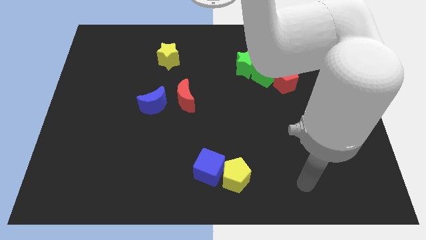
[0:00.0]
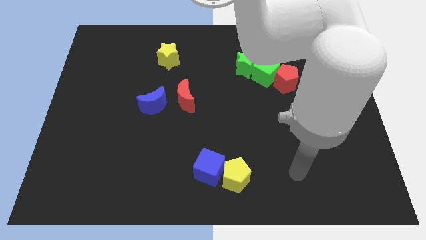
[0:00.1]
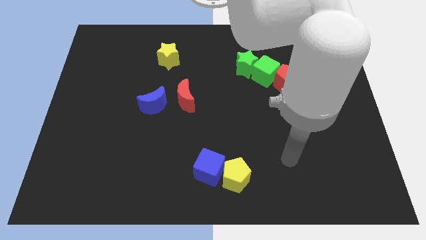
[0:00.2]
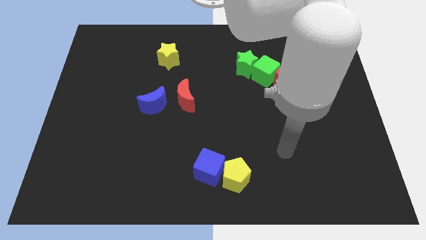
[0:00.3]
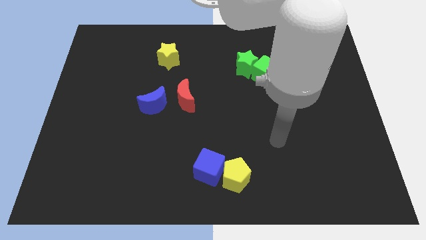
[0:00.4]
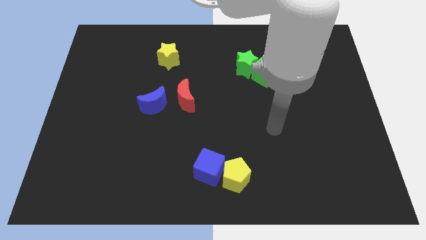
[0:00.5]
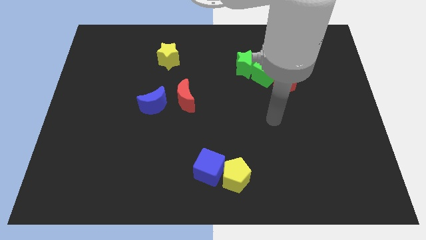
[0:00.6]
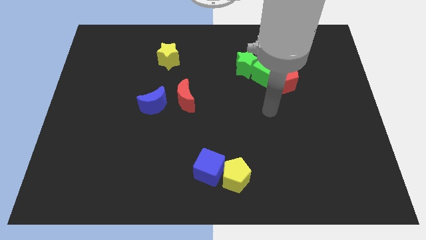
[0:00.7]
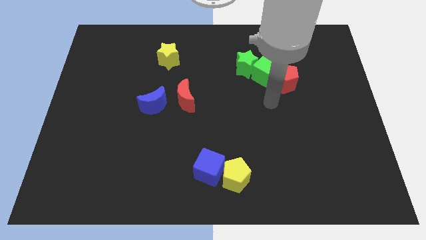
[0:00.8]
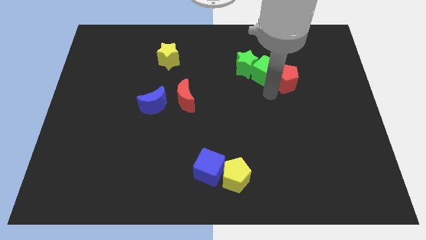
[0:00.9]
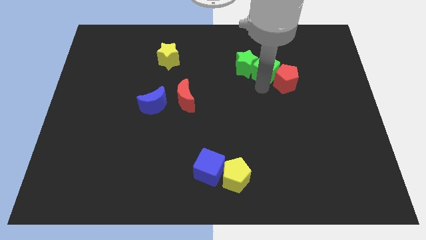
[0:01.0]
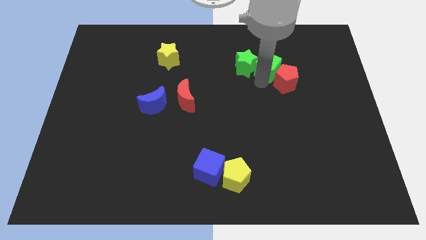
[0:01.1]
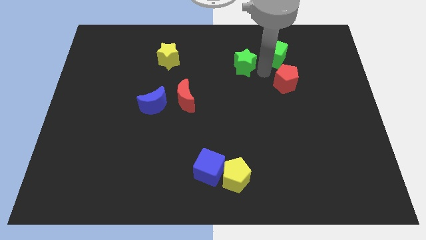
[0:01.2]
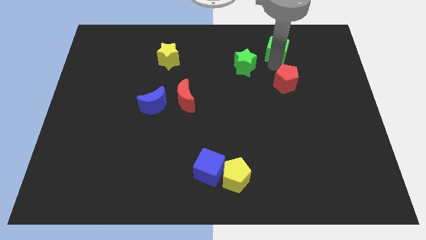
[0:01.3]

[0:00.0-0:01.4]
separate the red pentagon from the green cube

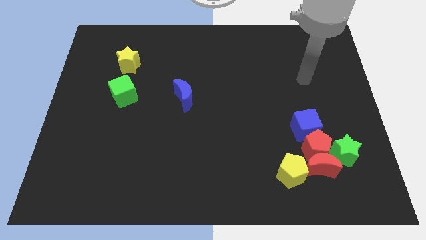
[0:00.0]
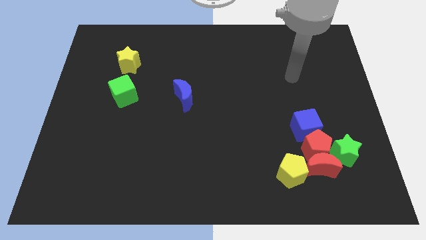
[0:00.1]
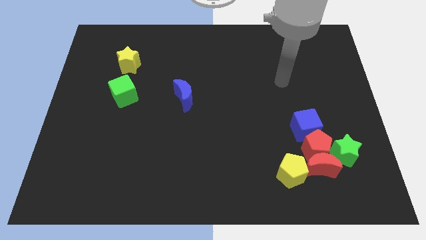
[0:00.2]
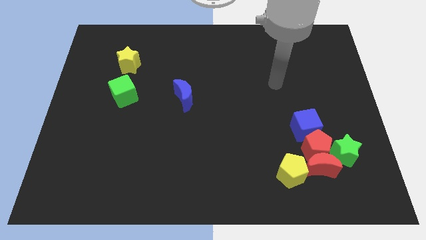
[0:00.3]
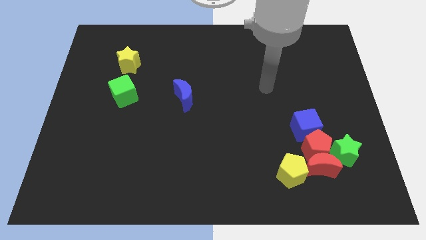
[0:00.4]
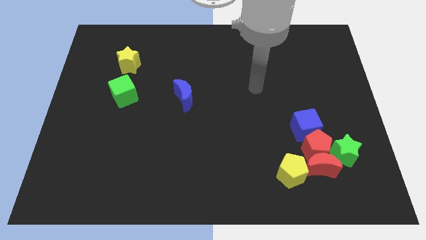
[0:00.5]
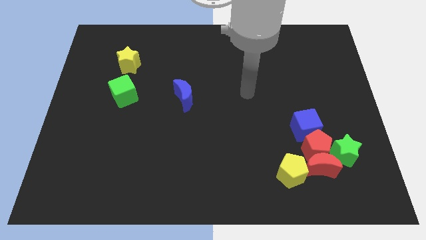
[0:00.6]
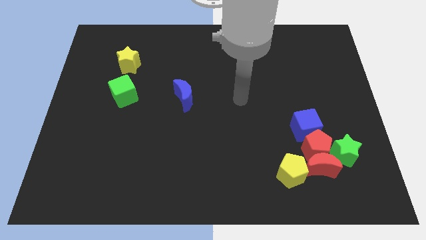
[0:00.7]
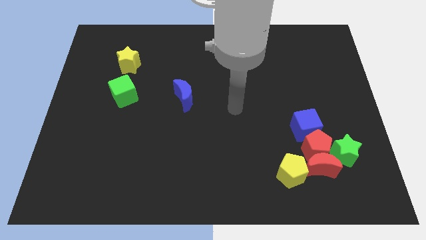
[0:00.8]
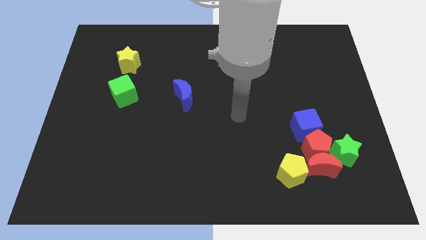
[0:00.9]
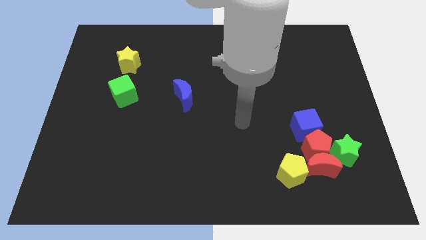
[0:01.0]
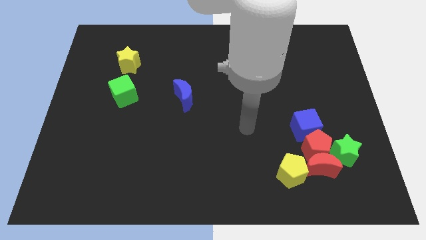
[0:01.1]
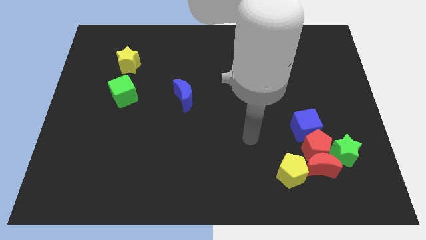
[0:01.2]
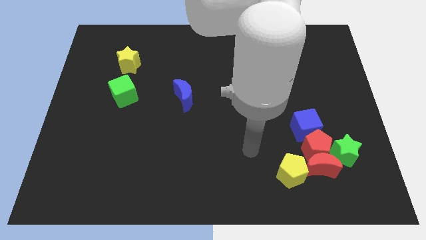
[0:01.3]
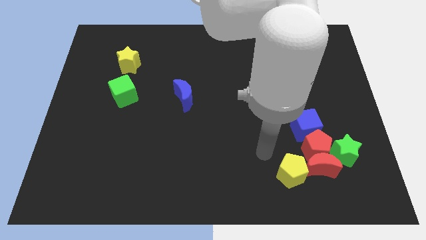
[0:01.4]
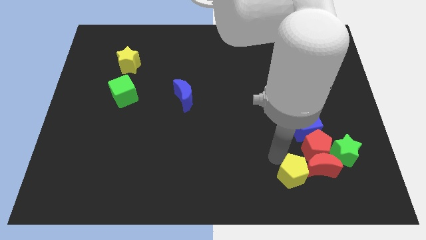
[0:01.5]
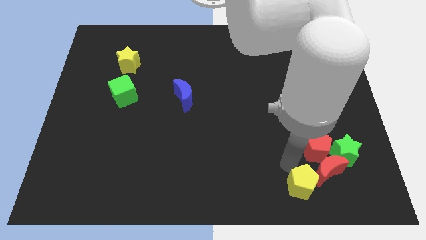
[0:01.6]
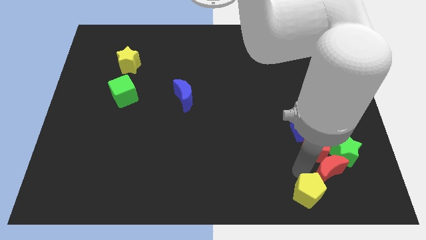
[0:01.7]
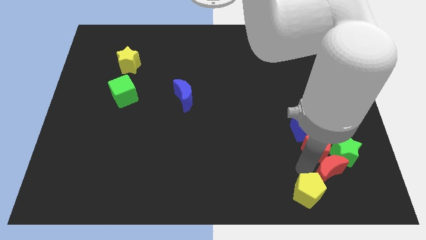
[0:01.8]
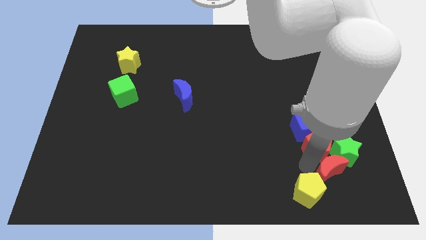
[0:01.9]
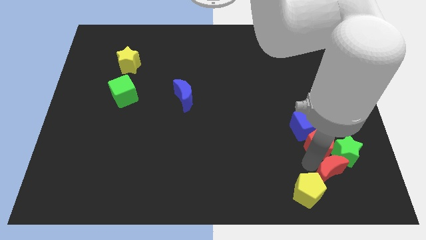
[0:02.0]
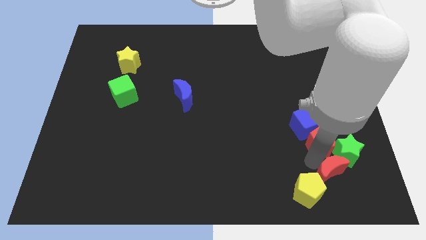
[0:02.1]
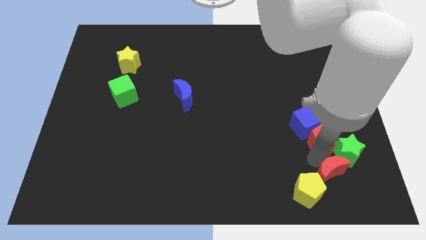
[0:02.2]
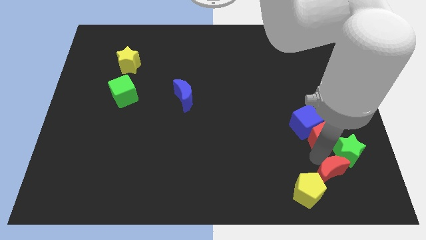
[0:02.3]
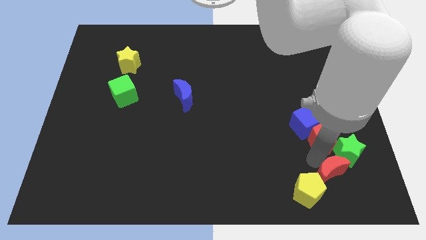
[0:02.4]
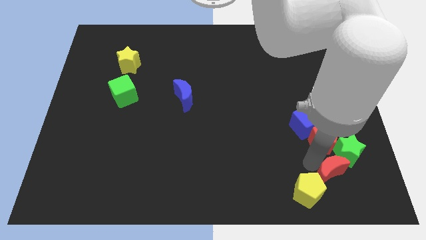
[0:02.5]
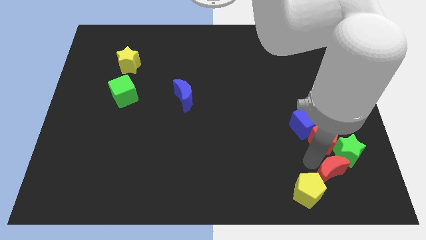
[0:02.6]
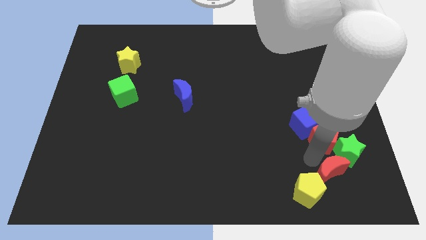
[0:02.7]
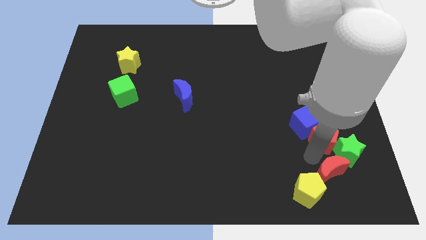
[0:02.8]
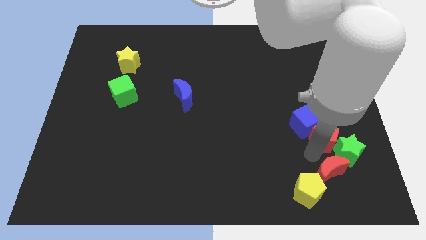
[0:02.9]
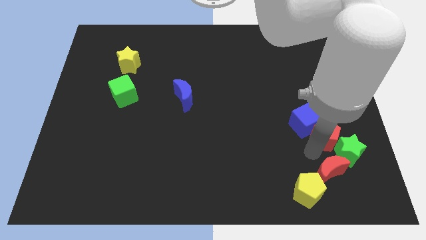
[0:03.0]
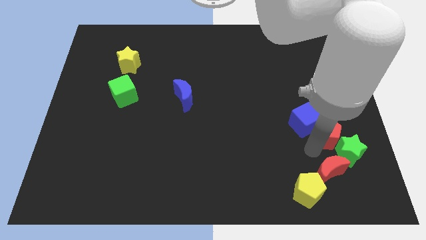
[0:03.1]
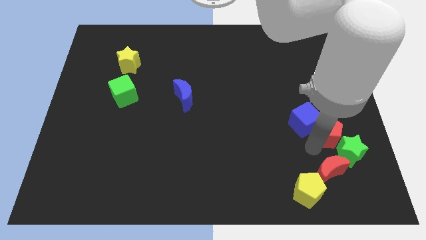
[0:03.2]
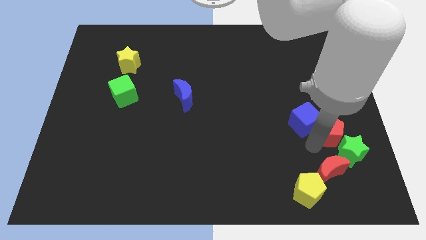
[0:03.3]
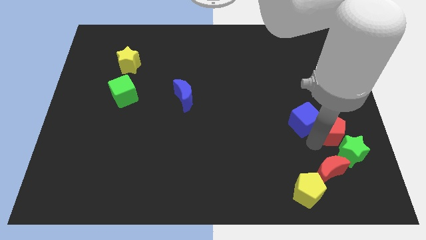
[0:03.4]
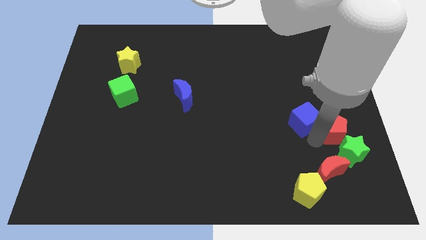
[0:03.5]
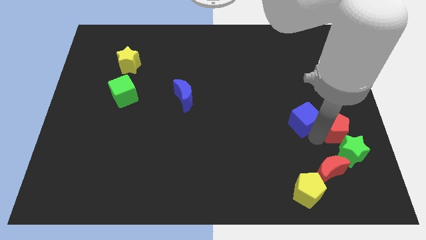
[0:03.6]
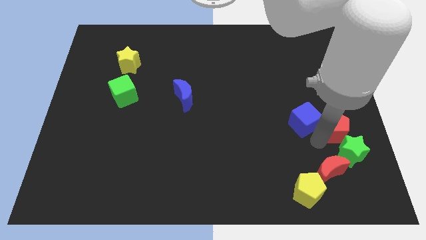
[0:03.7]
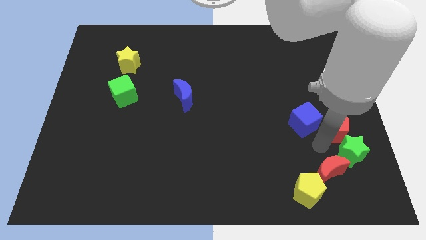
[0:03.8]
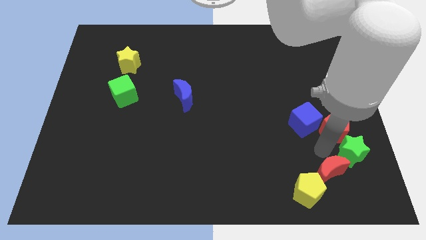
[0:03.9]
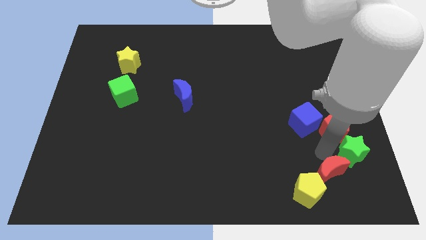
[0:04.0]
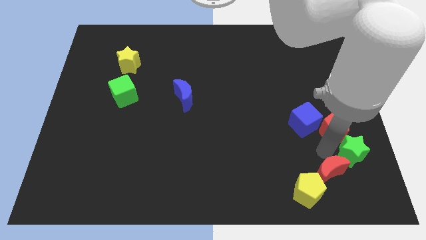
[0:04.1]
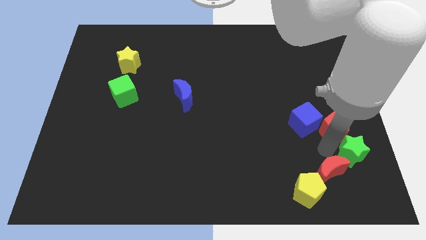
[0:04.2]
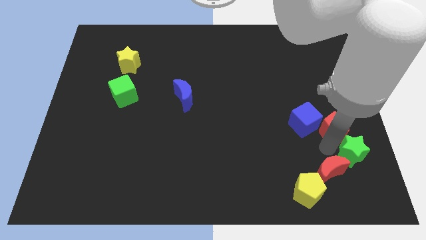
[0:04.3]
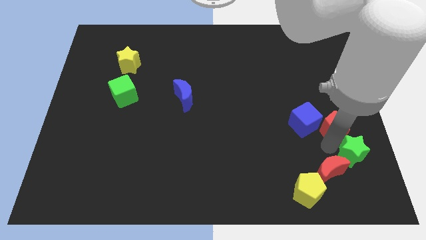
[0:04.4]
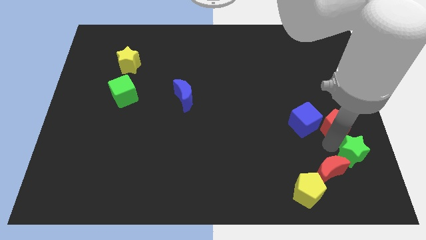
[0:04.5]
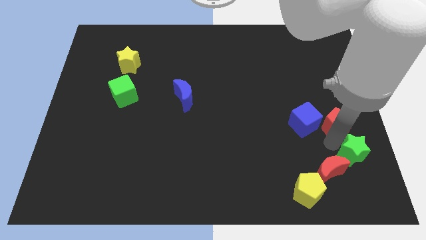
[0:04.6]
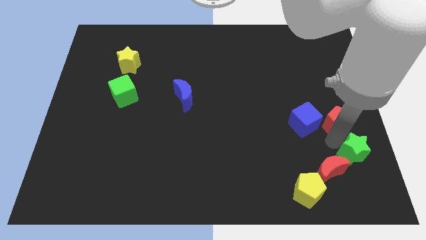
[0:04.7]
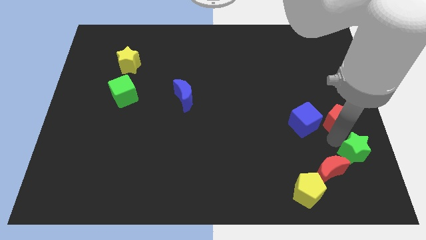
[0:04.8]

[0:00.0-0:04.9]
move the red pentagon away from the group

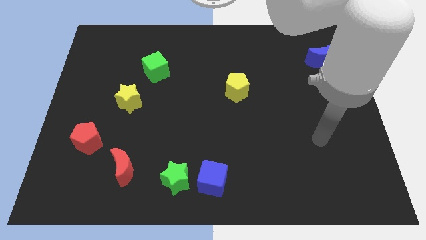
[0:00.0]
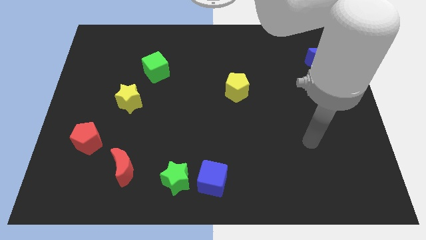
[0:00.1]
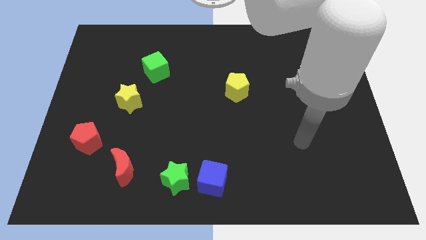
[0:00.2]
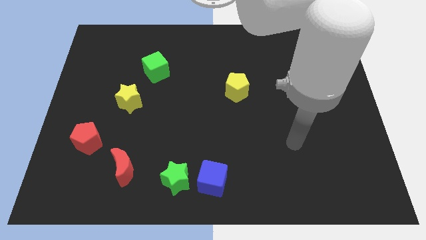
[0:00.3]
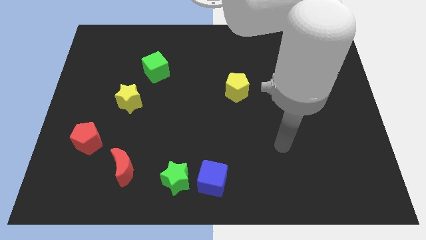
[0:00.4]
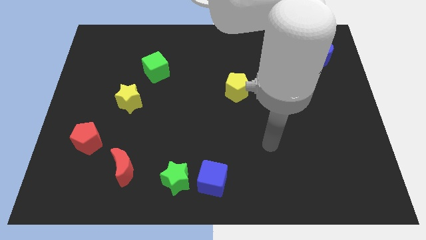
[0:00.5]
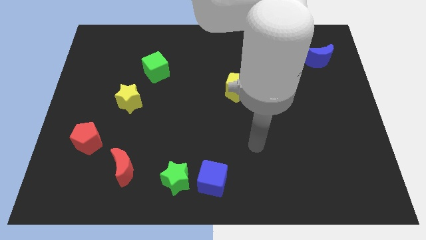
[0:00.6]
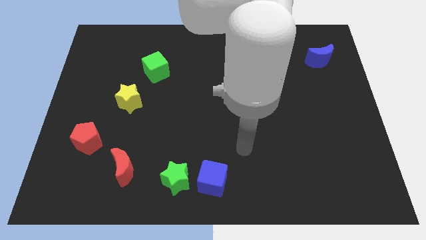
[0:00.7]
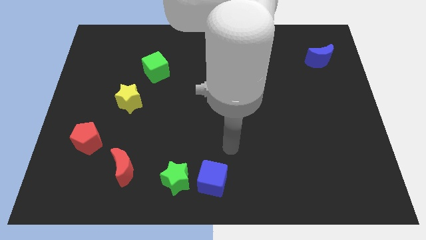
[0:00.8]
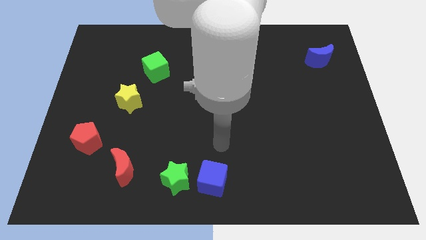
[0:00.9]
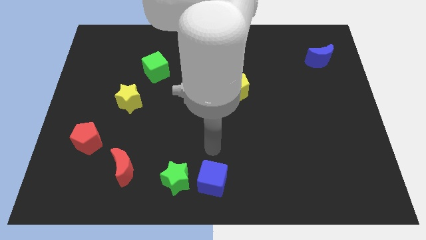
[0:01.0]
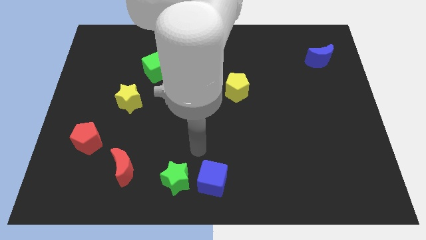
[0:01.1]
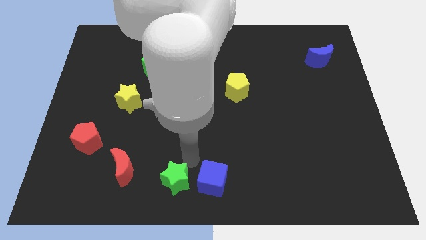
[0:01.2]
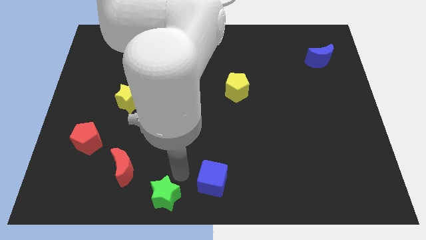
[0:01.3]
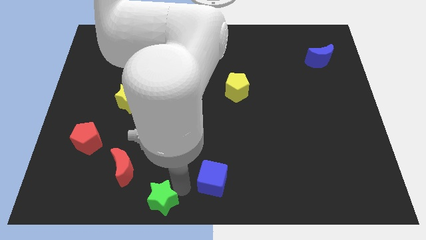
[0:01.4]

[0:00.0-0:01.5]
move the blue cube away from the green star

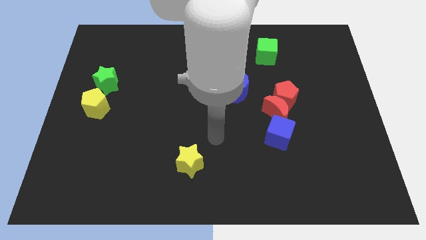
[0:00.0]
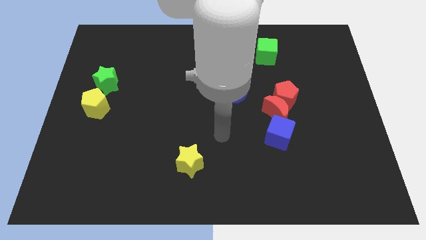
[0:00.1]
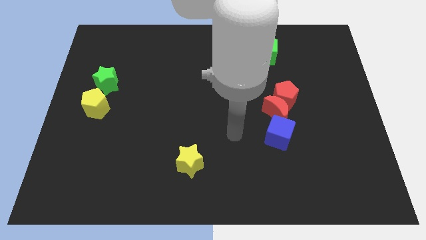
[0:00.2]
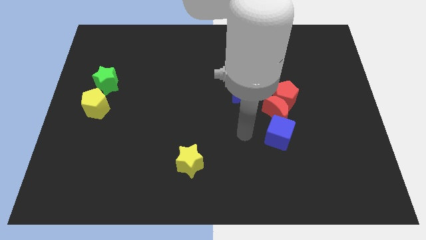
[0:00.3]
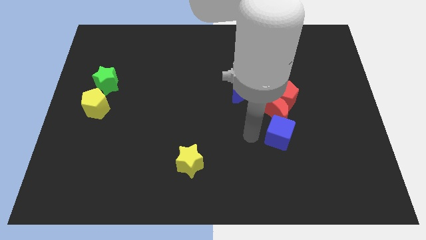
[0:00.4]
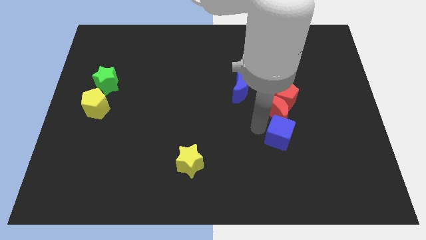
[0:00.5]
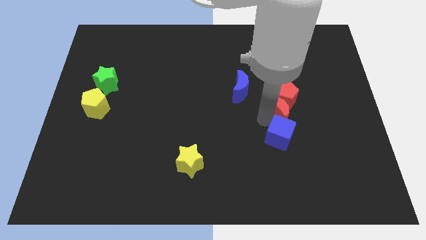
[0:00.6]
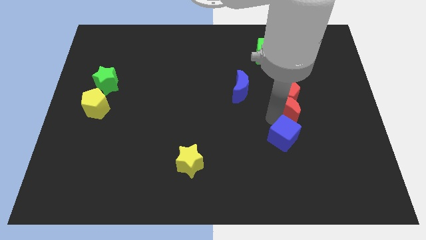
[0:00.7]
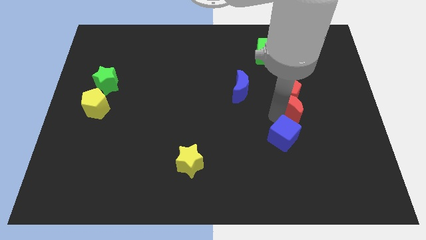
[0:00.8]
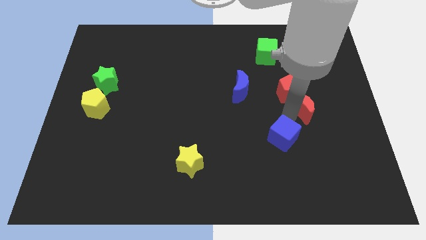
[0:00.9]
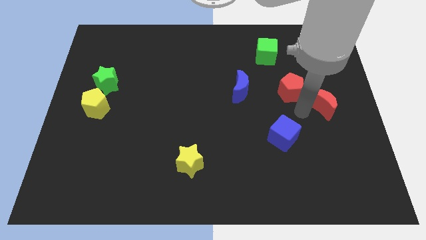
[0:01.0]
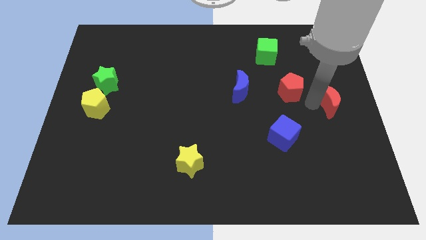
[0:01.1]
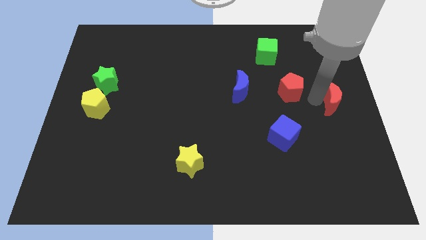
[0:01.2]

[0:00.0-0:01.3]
pull the red pentagon apart from the red moon

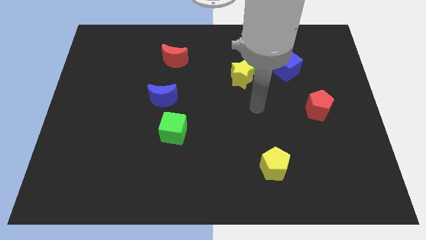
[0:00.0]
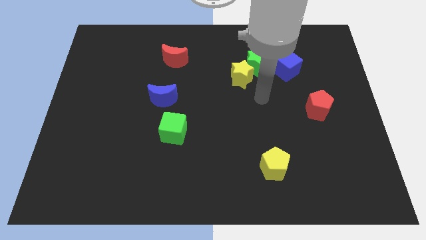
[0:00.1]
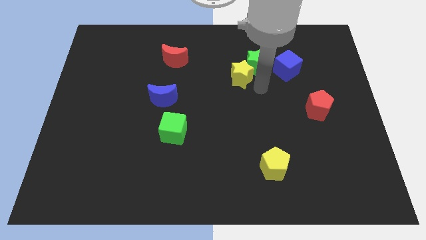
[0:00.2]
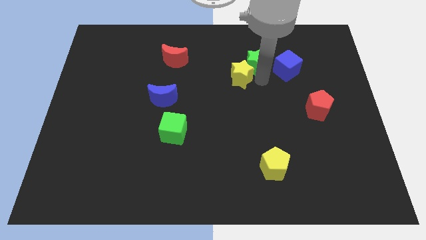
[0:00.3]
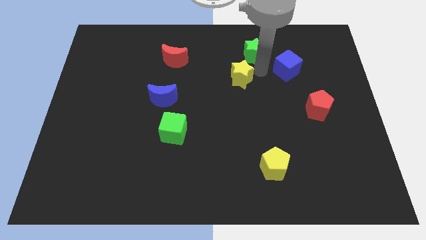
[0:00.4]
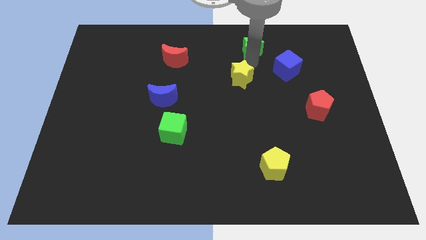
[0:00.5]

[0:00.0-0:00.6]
separate the yellow star from the green star
